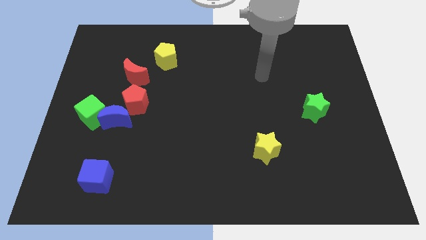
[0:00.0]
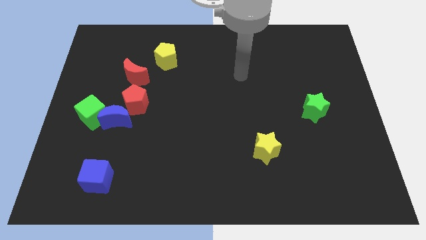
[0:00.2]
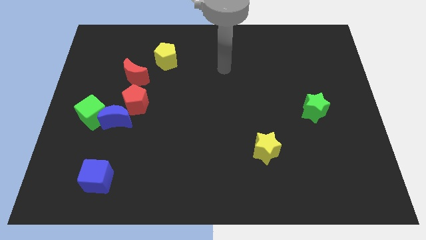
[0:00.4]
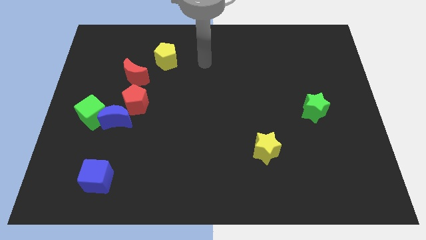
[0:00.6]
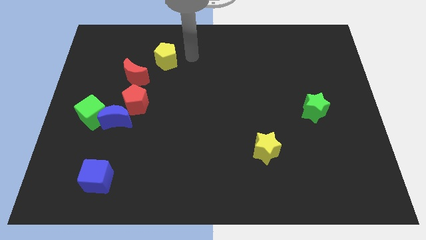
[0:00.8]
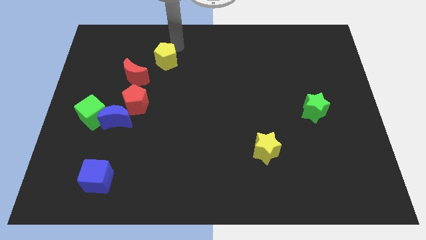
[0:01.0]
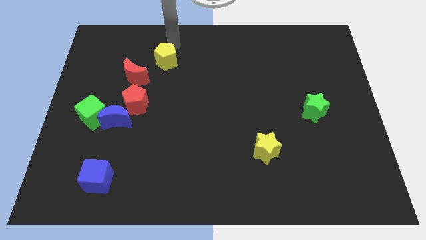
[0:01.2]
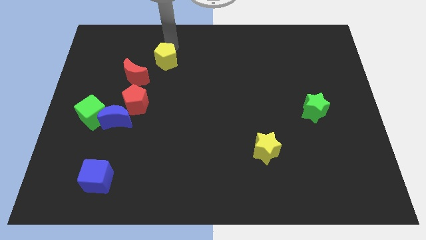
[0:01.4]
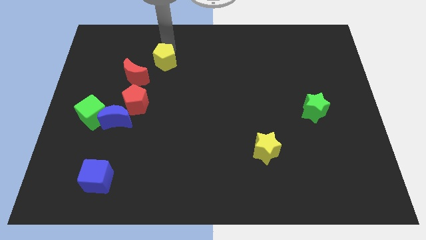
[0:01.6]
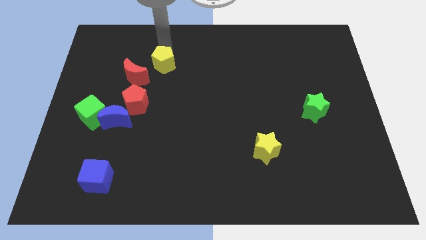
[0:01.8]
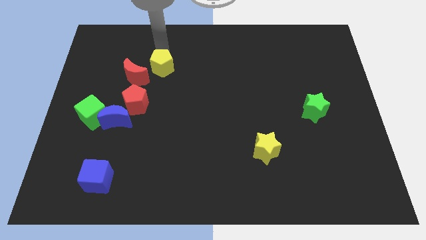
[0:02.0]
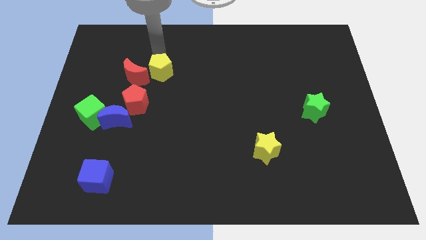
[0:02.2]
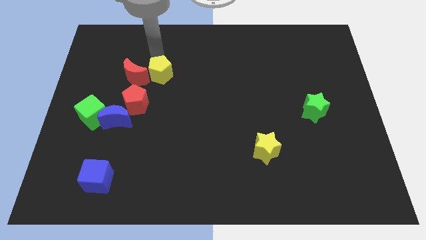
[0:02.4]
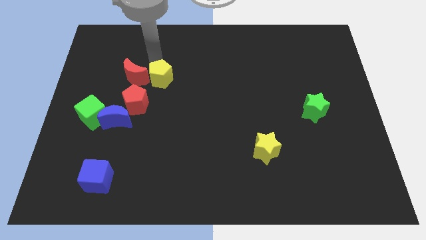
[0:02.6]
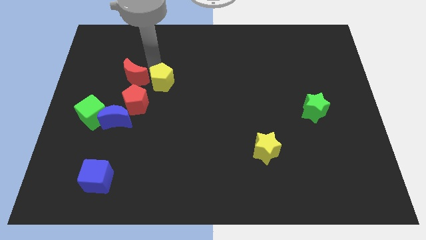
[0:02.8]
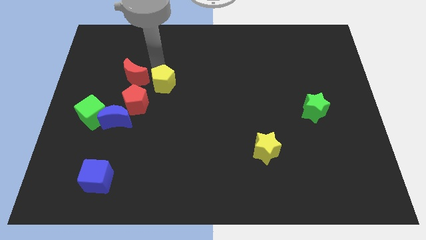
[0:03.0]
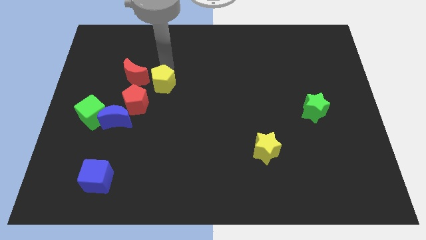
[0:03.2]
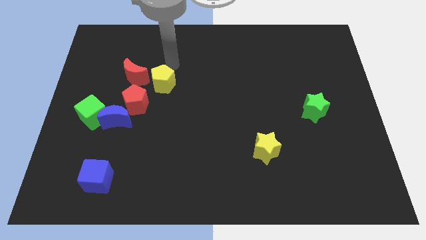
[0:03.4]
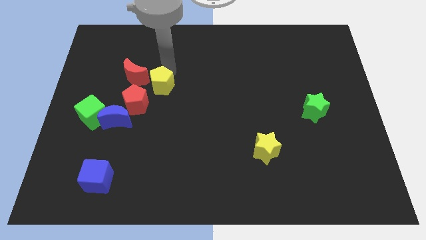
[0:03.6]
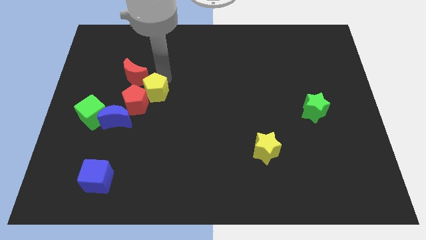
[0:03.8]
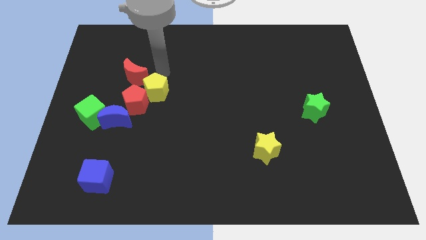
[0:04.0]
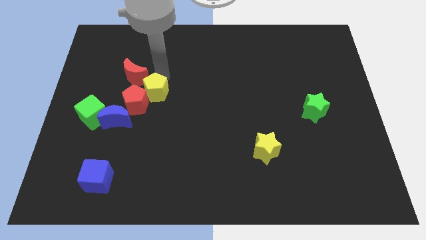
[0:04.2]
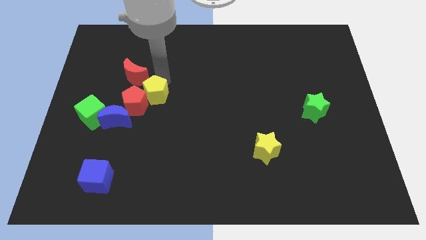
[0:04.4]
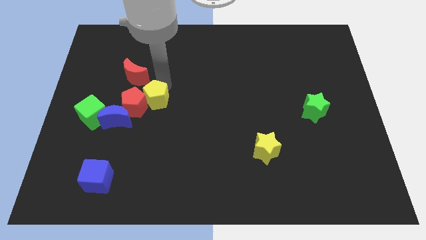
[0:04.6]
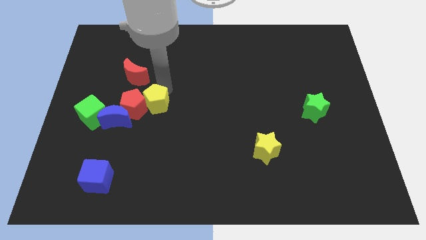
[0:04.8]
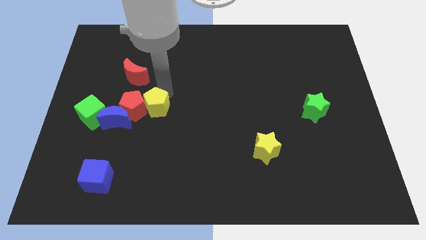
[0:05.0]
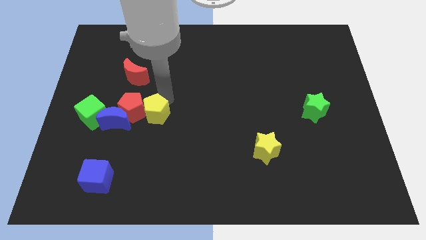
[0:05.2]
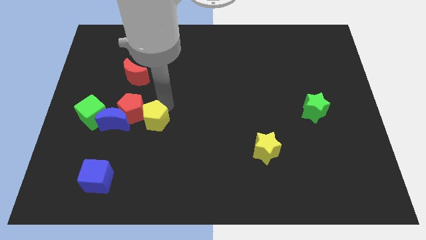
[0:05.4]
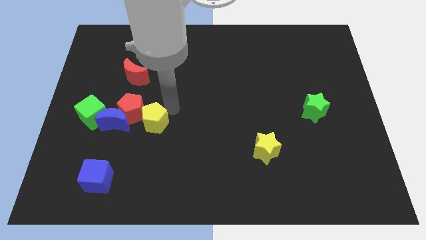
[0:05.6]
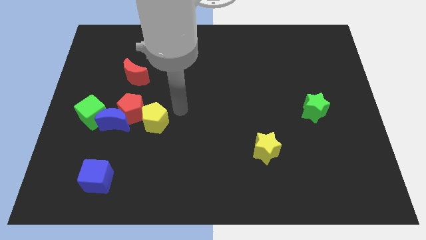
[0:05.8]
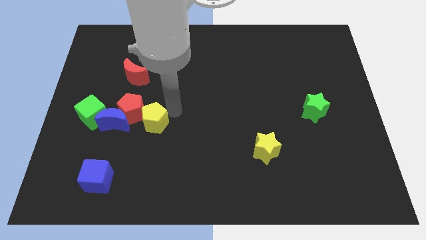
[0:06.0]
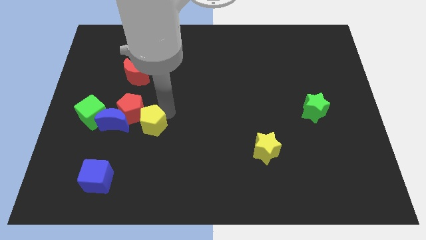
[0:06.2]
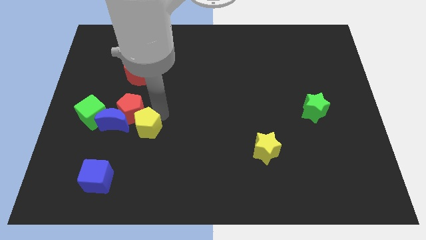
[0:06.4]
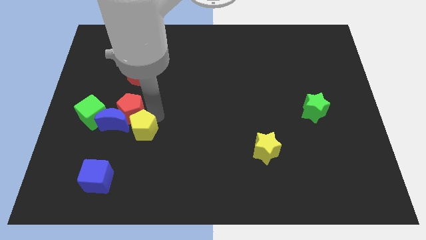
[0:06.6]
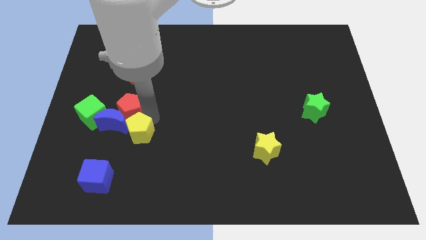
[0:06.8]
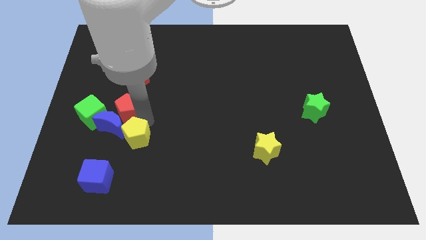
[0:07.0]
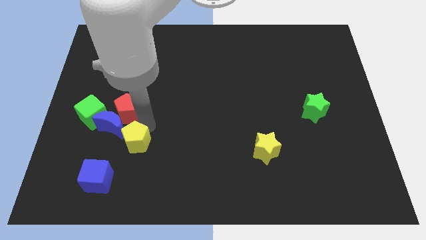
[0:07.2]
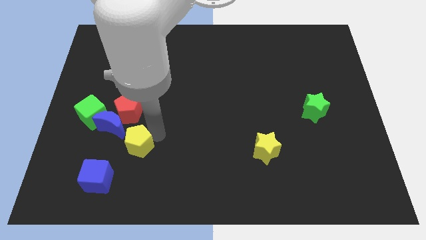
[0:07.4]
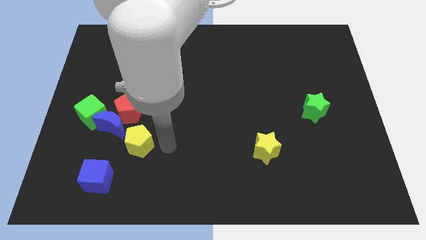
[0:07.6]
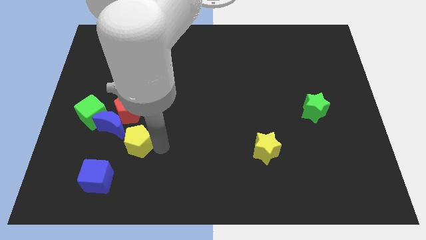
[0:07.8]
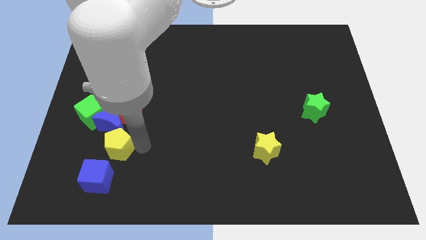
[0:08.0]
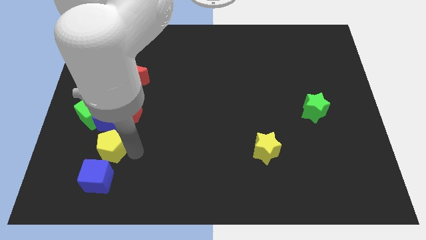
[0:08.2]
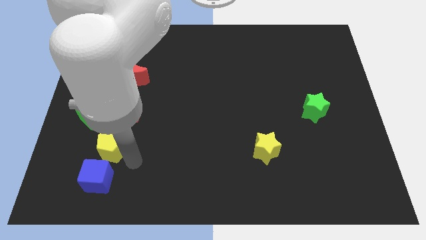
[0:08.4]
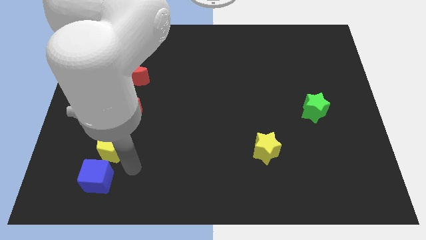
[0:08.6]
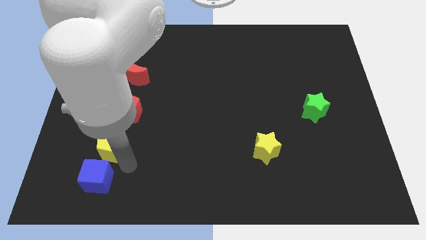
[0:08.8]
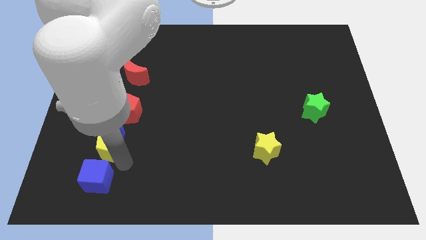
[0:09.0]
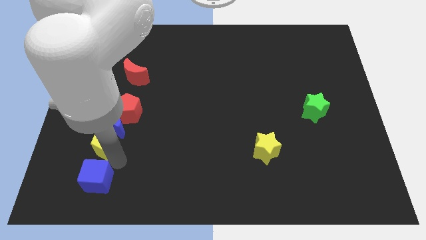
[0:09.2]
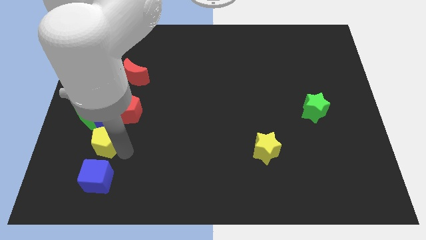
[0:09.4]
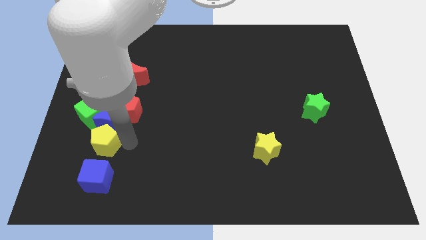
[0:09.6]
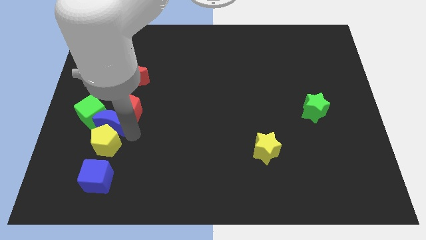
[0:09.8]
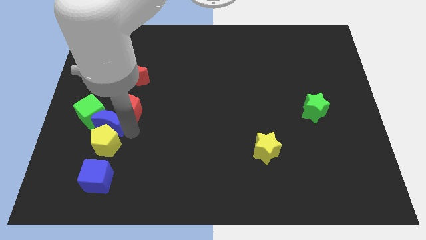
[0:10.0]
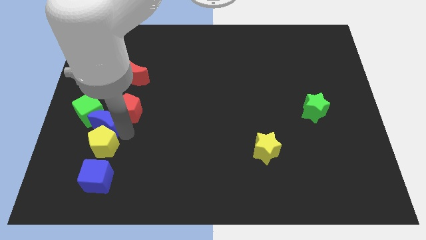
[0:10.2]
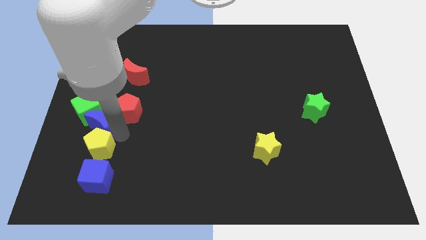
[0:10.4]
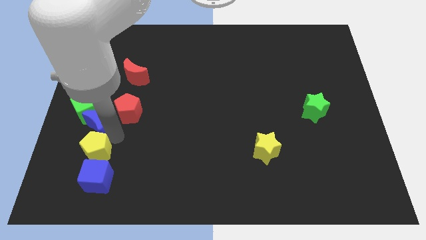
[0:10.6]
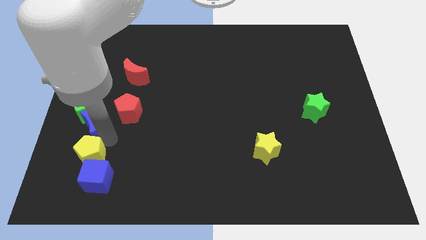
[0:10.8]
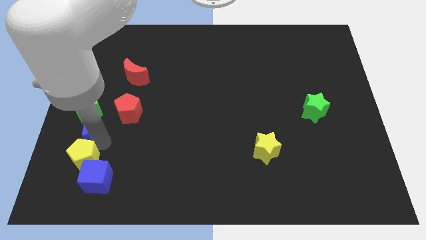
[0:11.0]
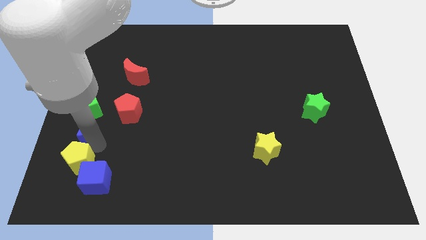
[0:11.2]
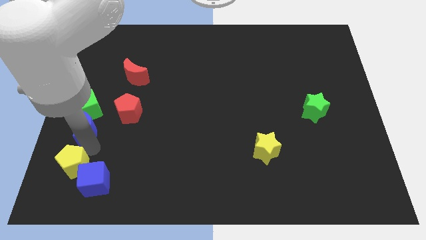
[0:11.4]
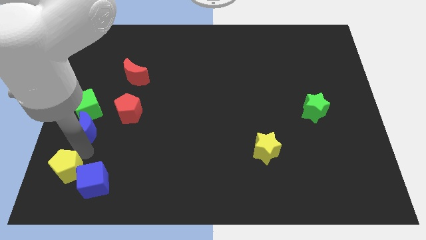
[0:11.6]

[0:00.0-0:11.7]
push the yellow pentagon to the bottom left corner

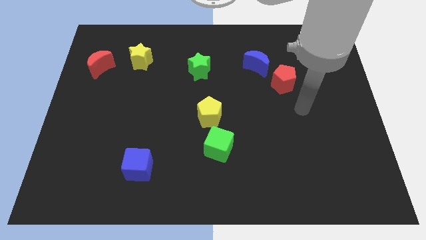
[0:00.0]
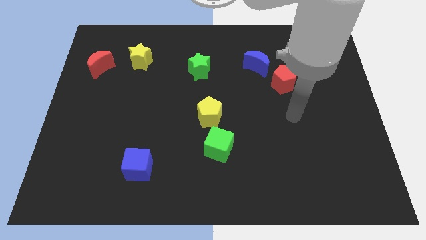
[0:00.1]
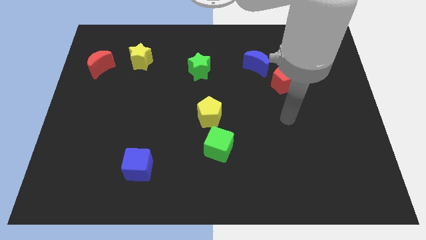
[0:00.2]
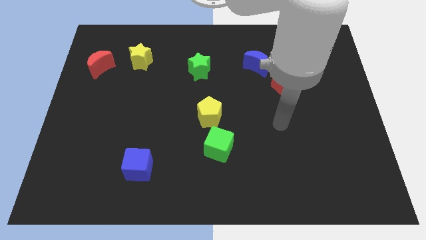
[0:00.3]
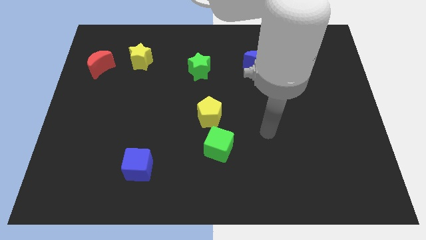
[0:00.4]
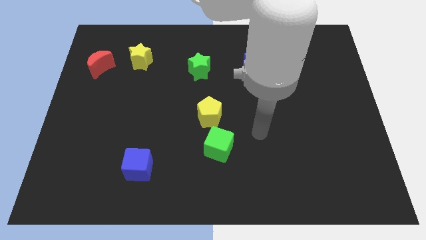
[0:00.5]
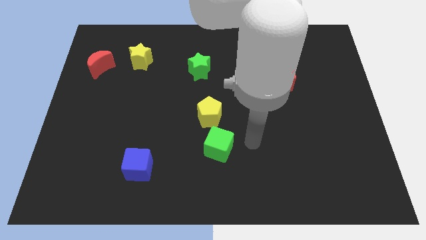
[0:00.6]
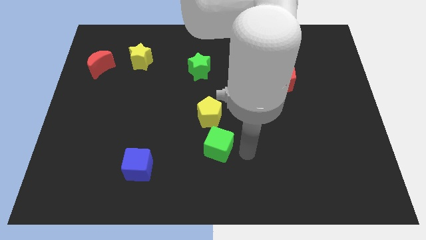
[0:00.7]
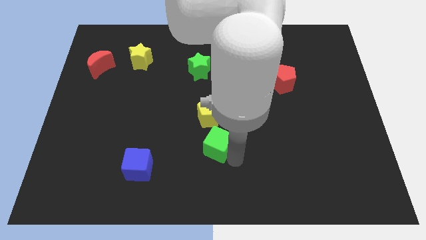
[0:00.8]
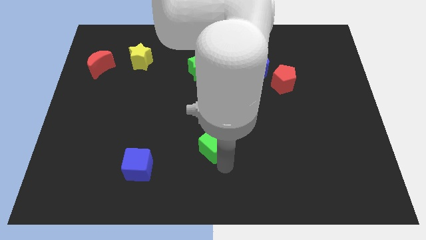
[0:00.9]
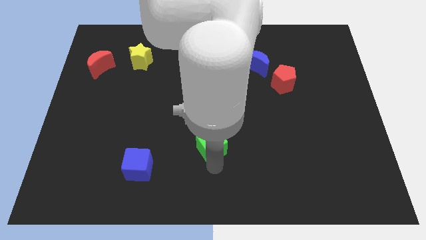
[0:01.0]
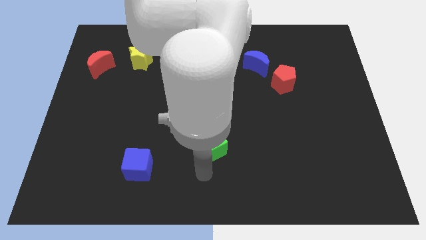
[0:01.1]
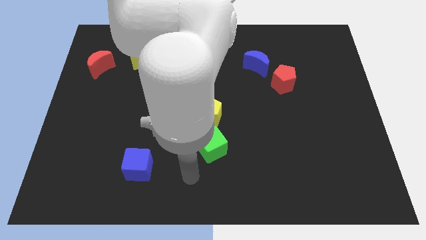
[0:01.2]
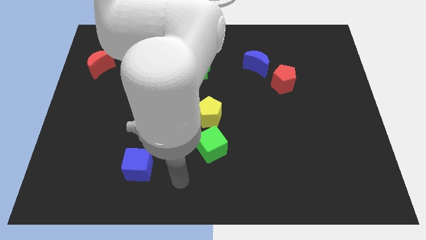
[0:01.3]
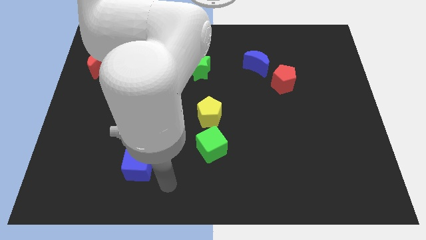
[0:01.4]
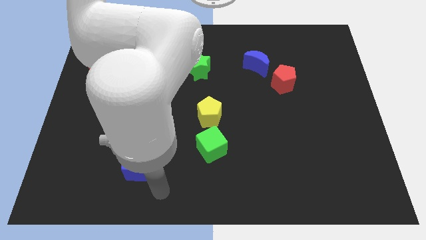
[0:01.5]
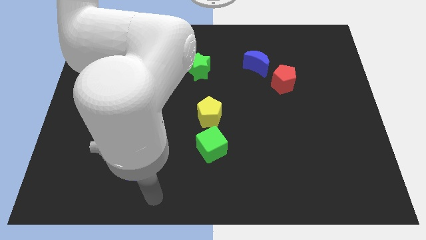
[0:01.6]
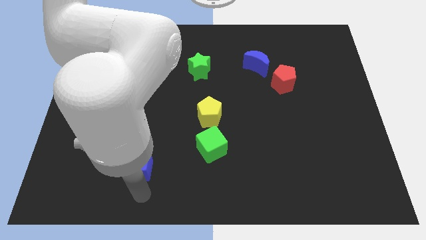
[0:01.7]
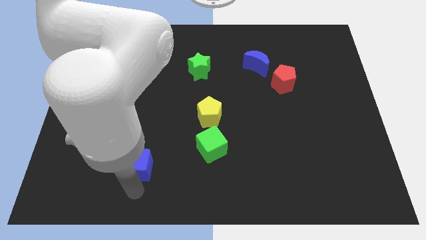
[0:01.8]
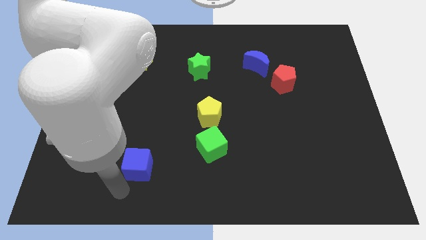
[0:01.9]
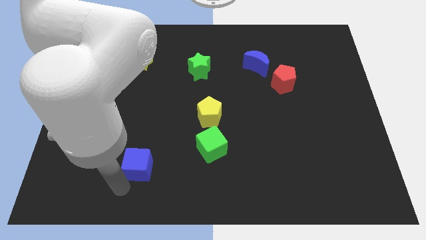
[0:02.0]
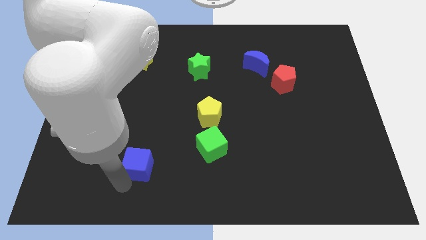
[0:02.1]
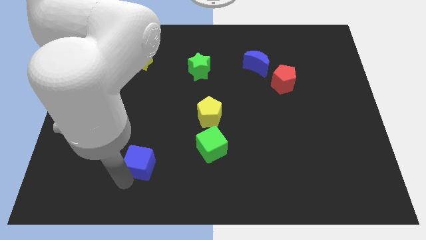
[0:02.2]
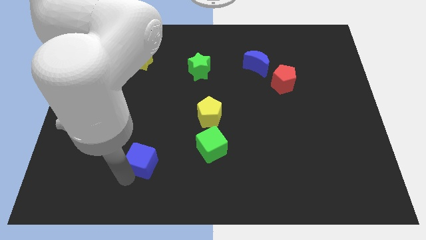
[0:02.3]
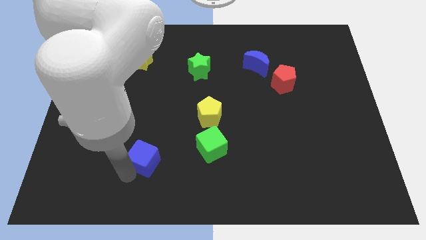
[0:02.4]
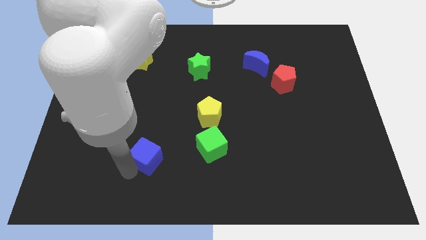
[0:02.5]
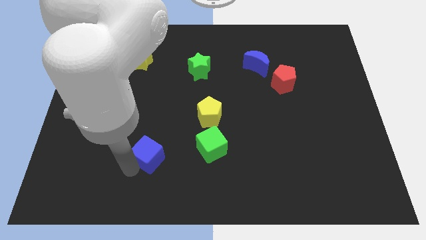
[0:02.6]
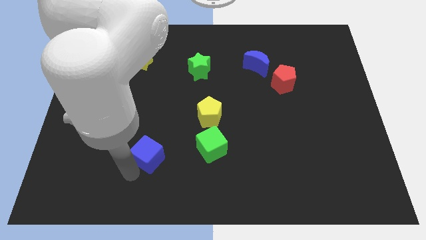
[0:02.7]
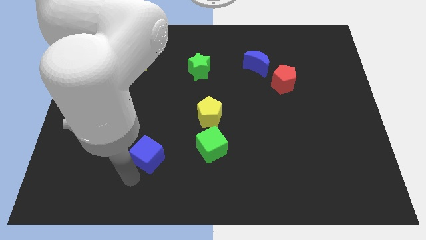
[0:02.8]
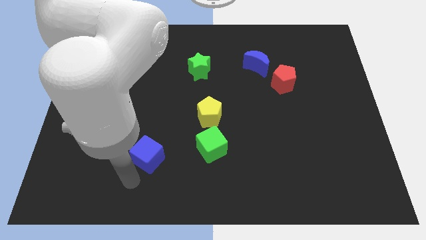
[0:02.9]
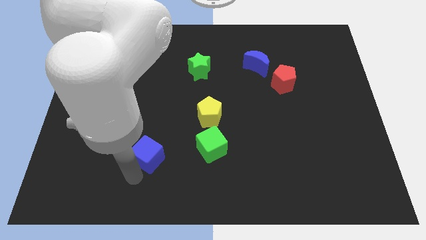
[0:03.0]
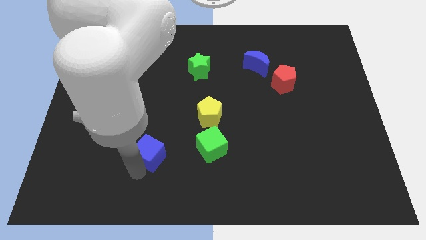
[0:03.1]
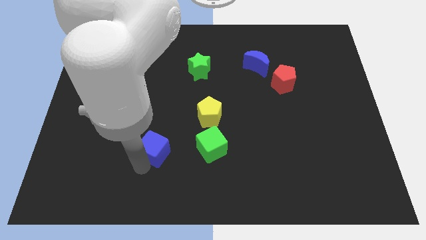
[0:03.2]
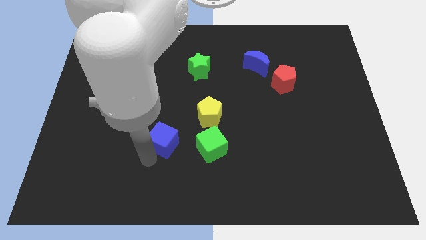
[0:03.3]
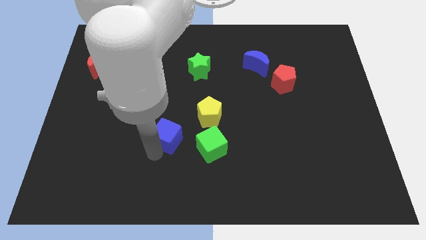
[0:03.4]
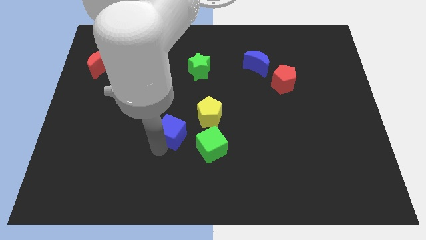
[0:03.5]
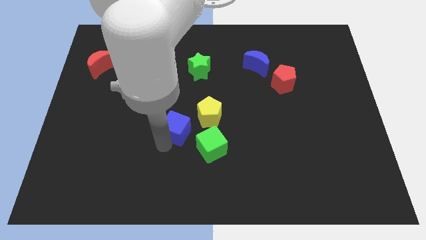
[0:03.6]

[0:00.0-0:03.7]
slide the blue cube to the middle
